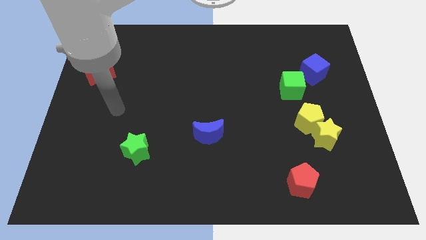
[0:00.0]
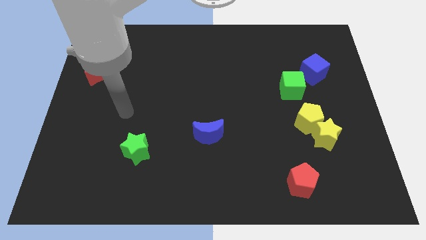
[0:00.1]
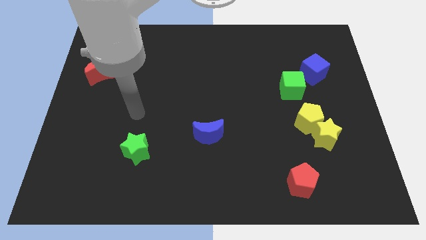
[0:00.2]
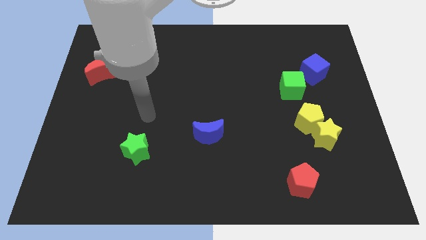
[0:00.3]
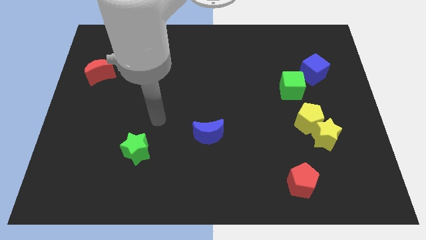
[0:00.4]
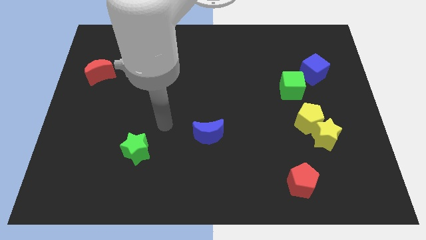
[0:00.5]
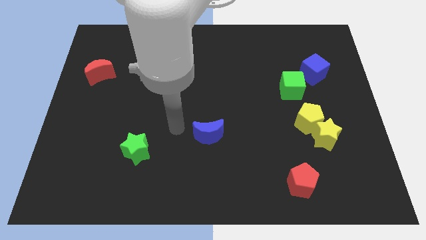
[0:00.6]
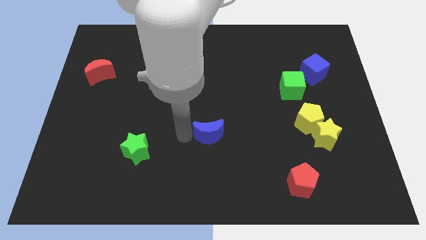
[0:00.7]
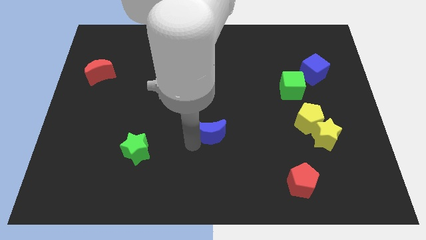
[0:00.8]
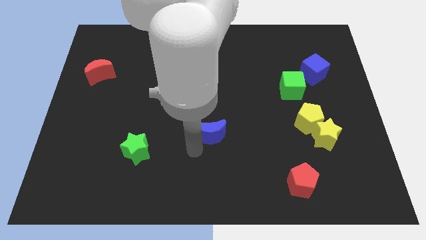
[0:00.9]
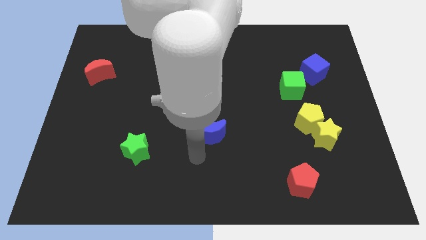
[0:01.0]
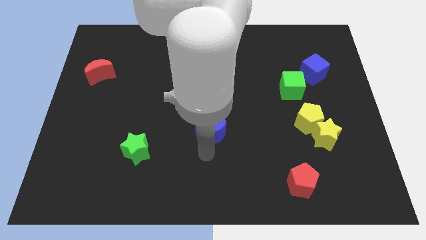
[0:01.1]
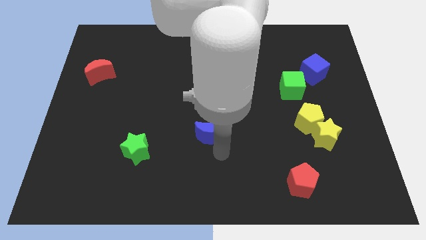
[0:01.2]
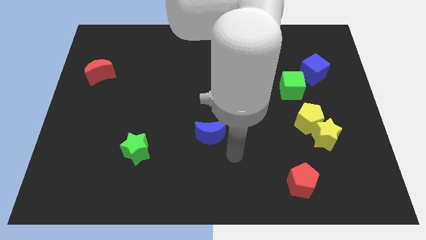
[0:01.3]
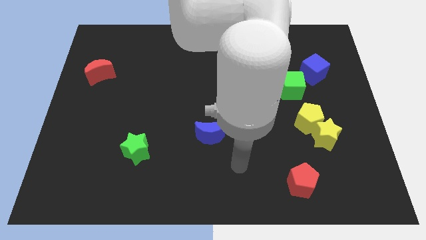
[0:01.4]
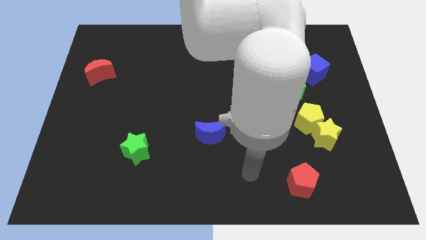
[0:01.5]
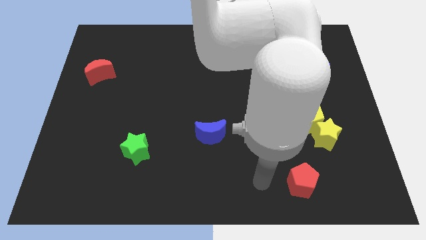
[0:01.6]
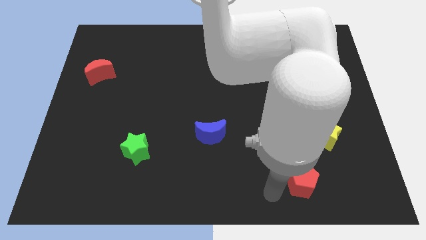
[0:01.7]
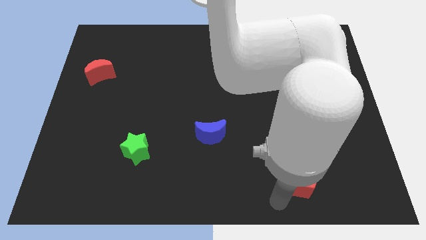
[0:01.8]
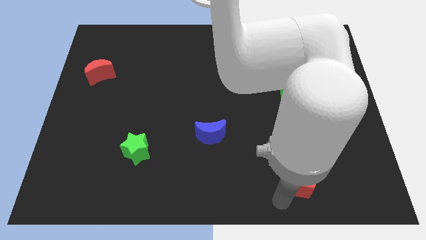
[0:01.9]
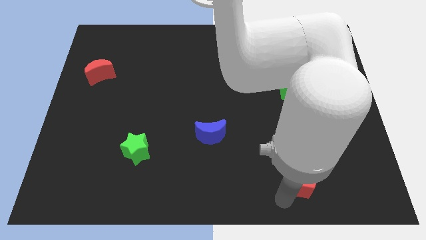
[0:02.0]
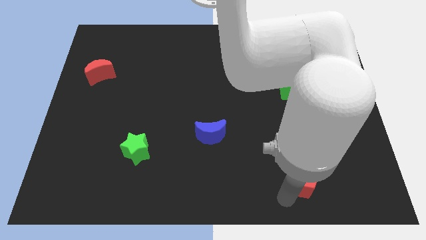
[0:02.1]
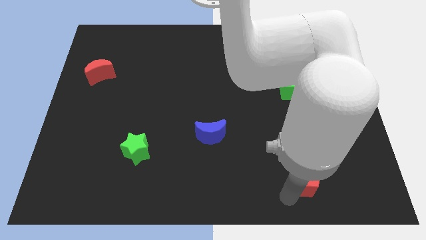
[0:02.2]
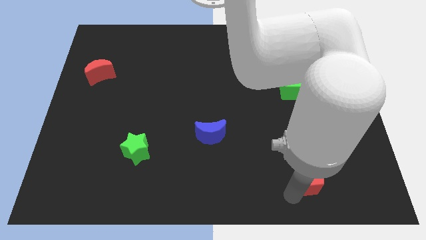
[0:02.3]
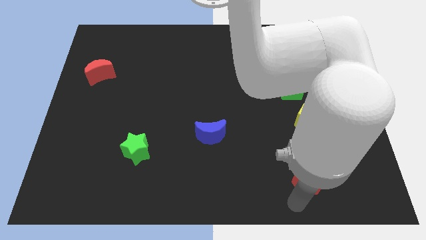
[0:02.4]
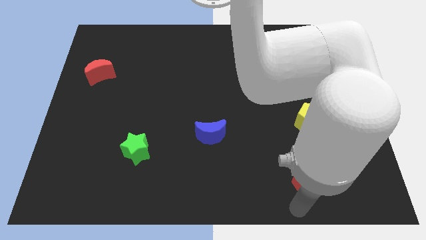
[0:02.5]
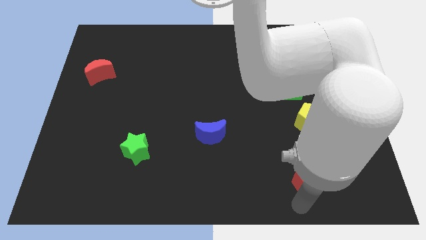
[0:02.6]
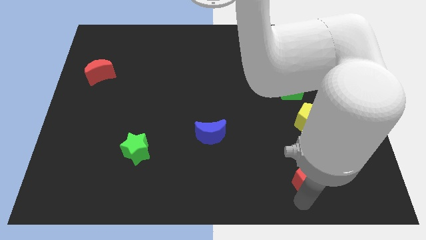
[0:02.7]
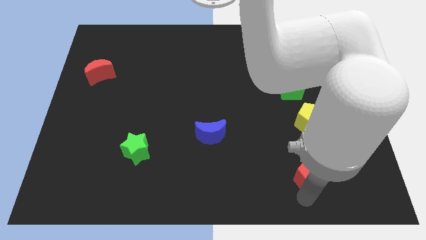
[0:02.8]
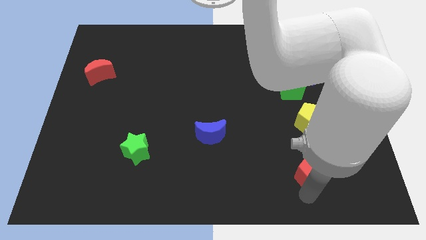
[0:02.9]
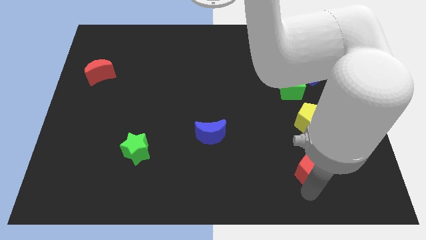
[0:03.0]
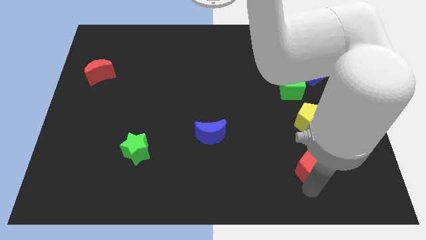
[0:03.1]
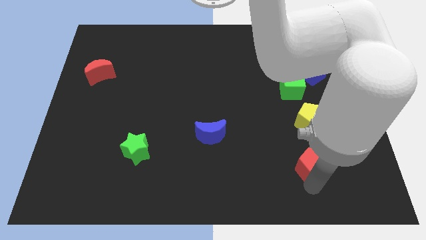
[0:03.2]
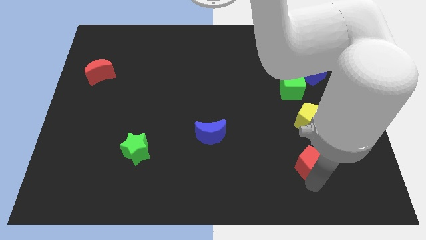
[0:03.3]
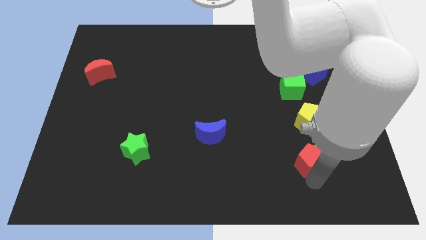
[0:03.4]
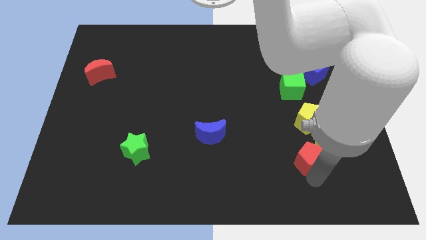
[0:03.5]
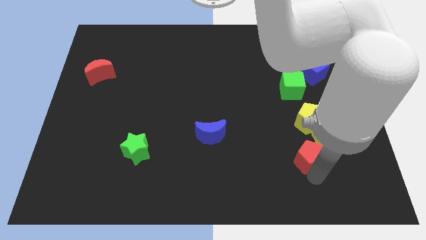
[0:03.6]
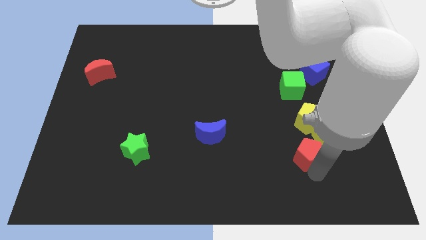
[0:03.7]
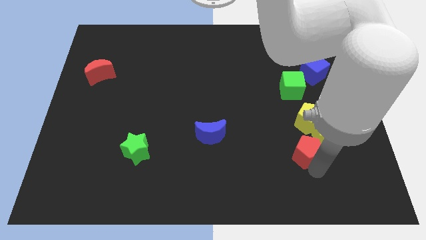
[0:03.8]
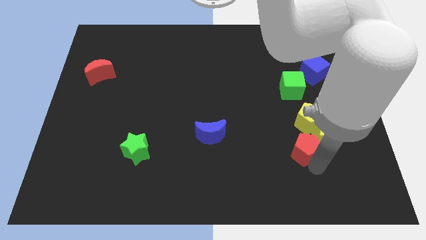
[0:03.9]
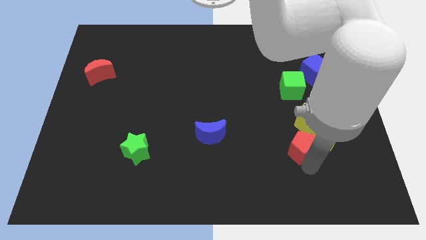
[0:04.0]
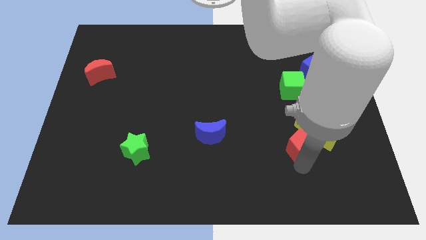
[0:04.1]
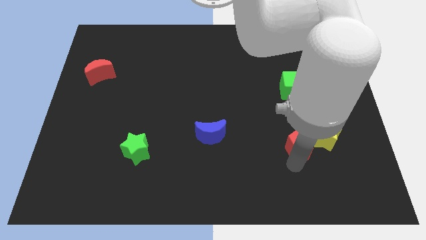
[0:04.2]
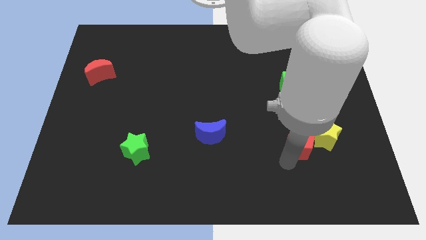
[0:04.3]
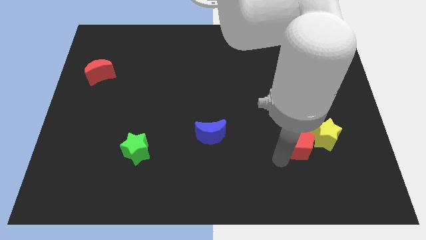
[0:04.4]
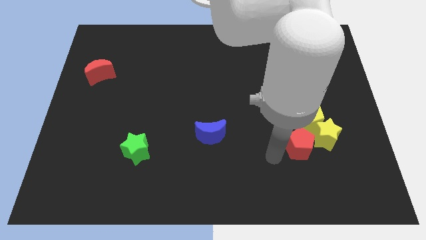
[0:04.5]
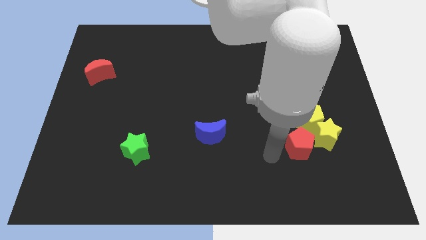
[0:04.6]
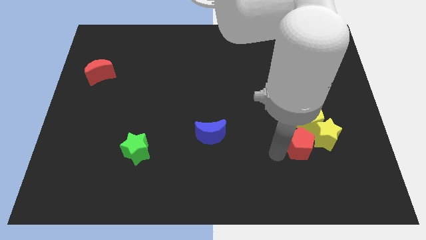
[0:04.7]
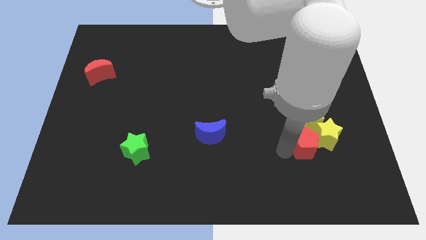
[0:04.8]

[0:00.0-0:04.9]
push the red pentagon next to the yellow star

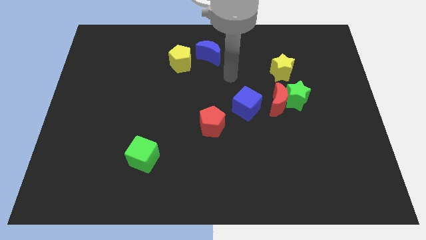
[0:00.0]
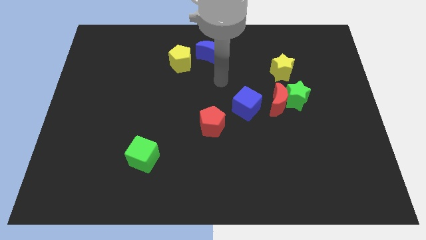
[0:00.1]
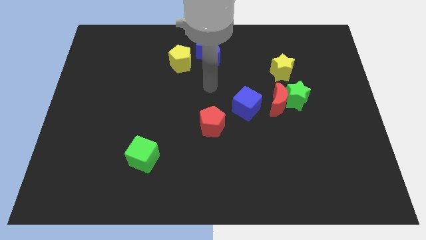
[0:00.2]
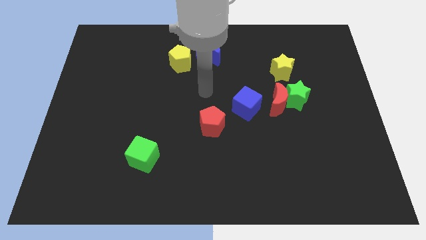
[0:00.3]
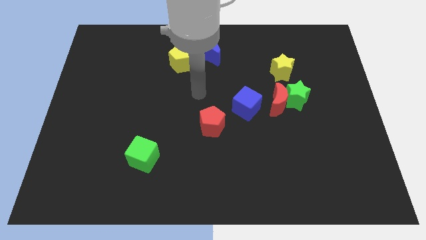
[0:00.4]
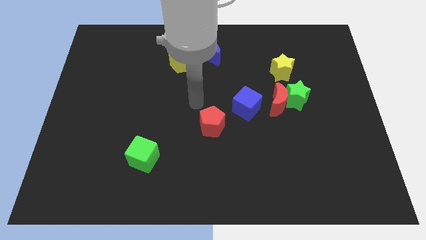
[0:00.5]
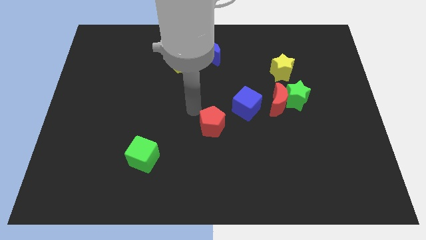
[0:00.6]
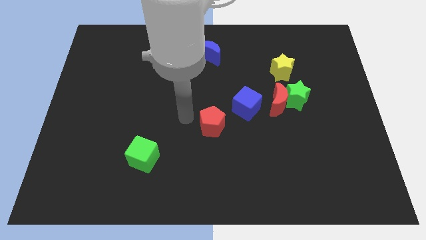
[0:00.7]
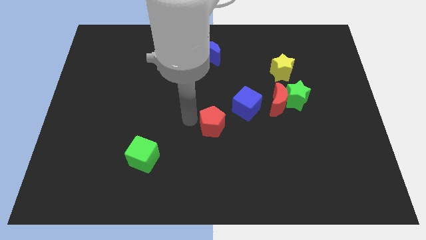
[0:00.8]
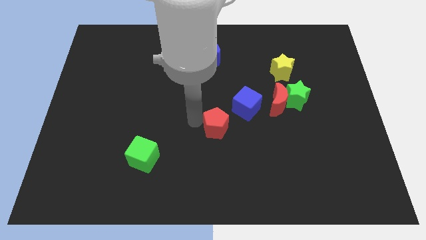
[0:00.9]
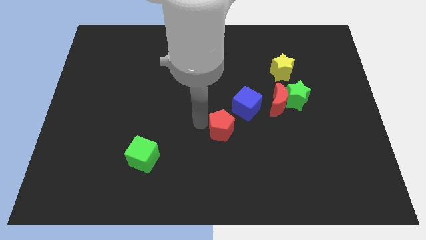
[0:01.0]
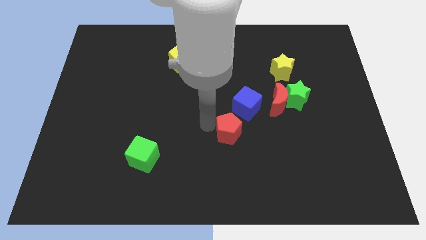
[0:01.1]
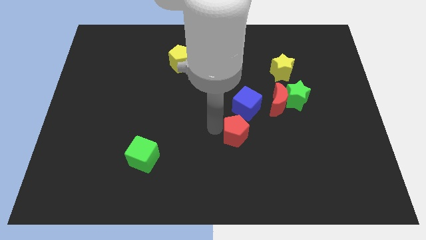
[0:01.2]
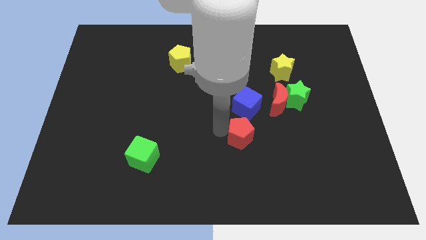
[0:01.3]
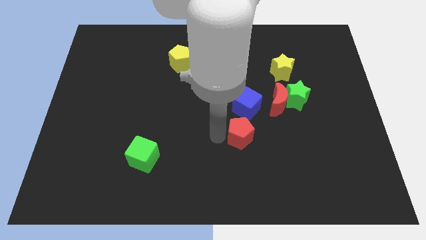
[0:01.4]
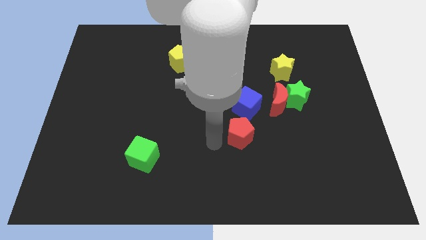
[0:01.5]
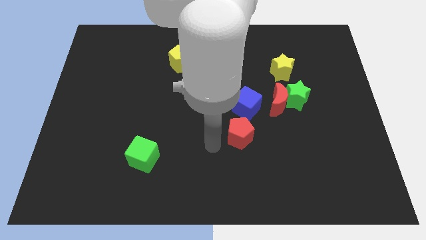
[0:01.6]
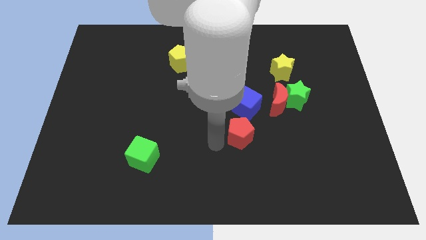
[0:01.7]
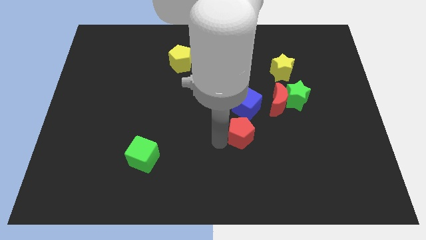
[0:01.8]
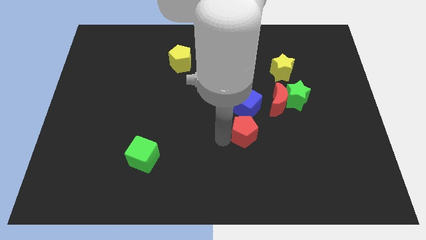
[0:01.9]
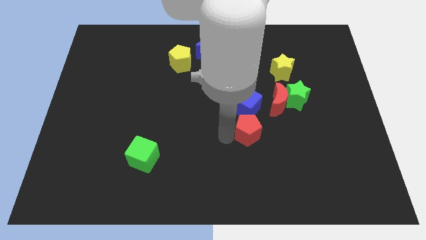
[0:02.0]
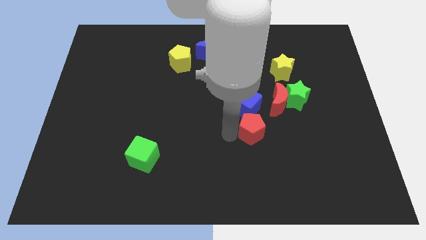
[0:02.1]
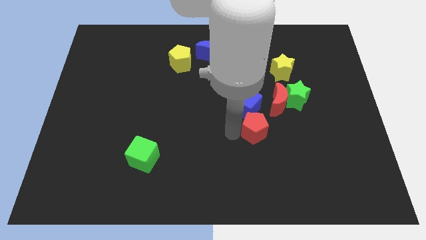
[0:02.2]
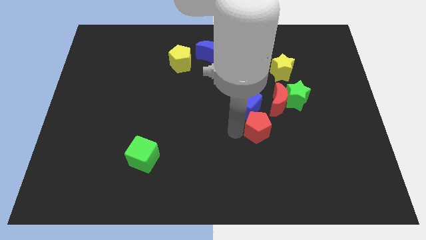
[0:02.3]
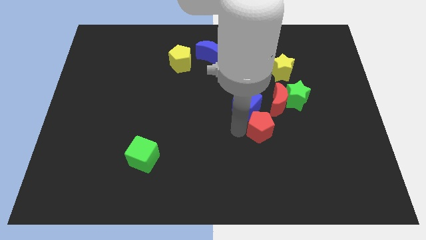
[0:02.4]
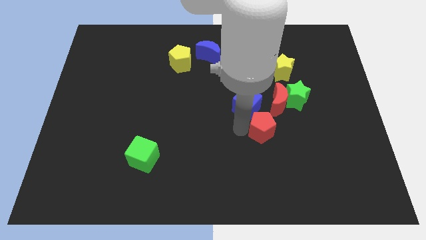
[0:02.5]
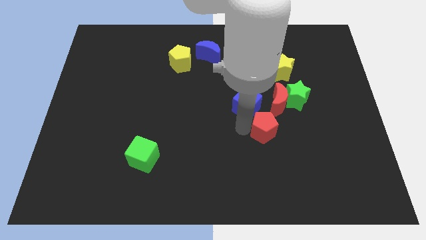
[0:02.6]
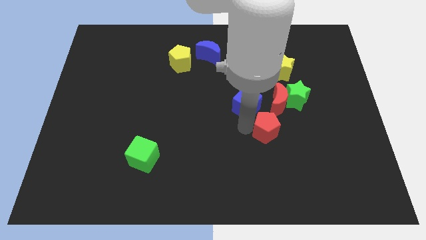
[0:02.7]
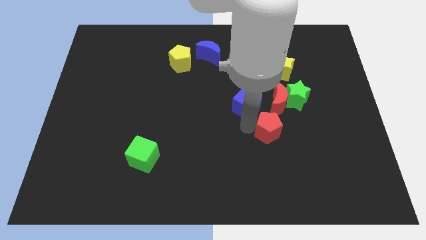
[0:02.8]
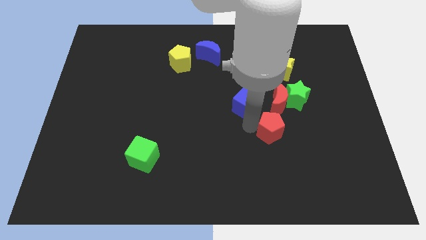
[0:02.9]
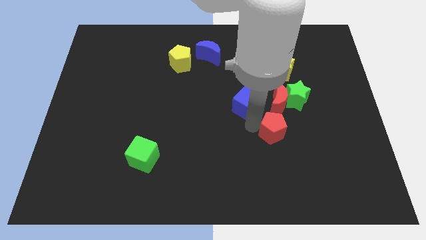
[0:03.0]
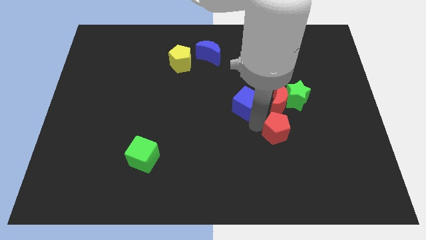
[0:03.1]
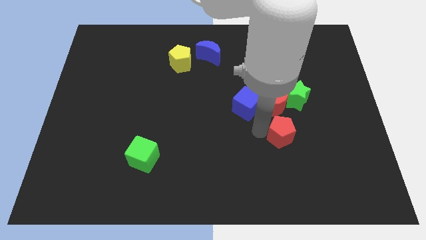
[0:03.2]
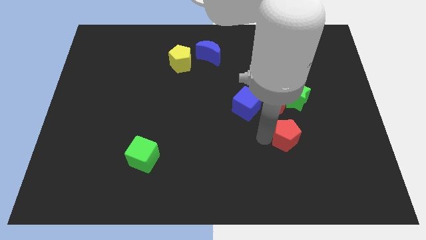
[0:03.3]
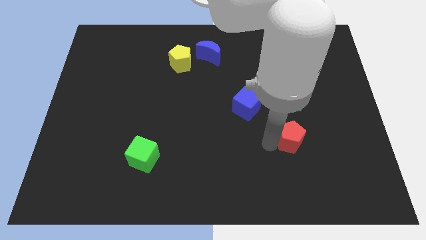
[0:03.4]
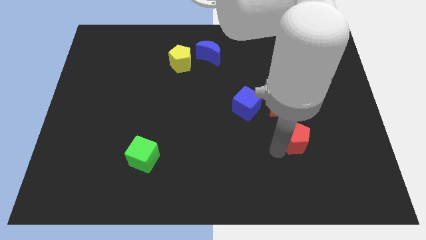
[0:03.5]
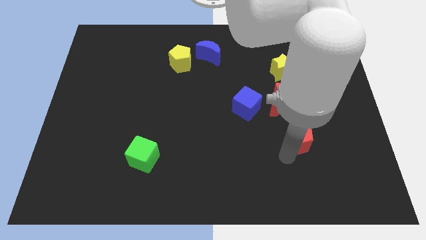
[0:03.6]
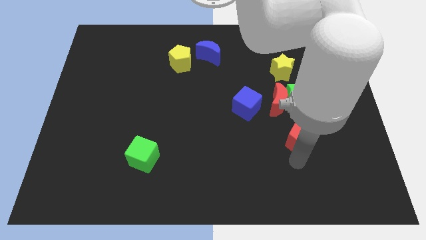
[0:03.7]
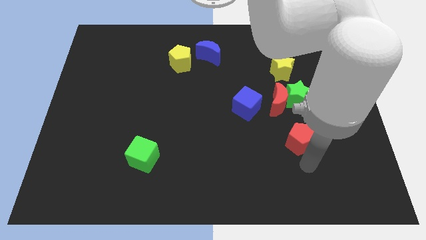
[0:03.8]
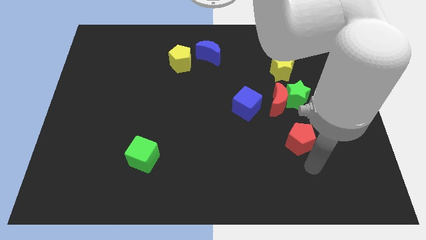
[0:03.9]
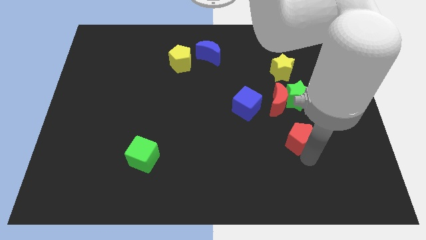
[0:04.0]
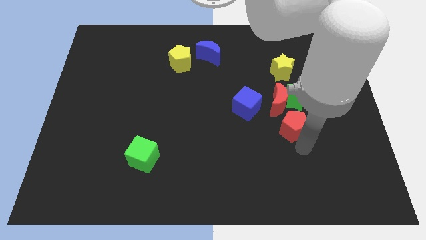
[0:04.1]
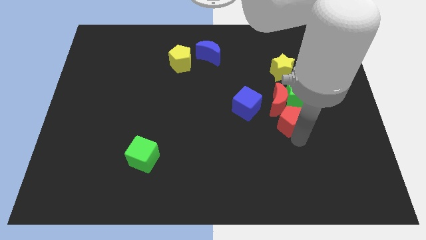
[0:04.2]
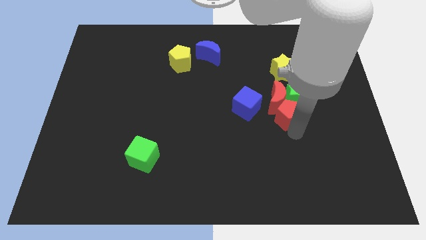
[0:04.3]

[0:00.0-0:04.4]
put the red pentagon to the red moon
